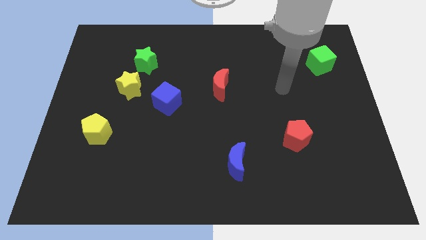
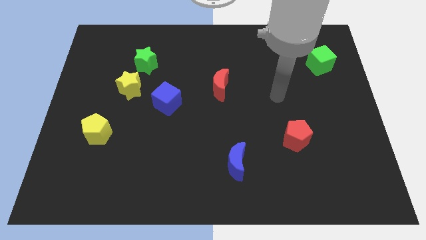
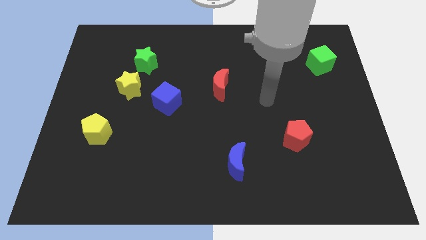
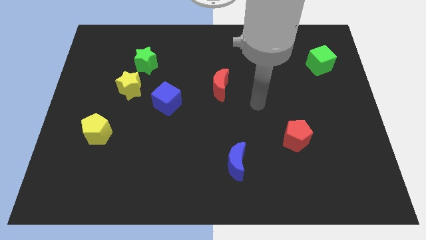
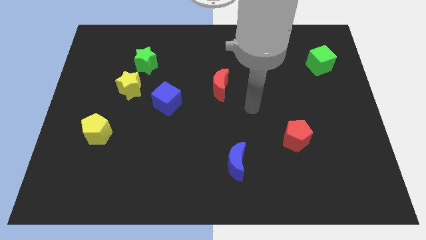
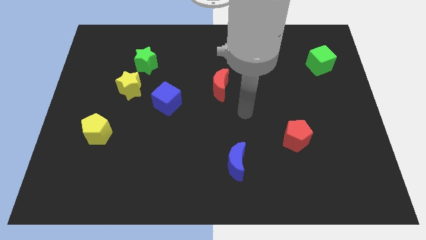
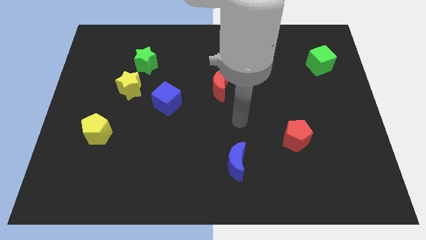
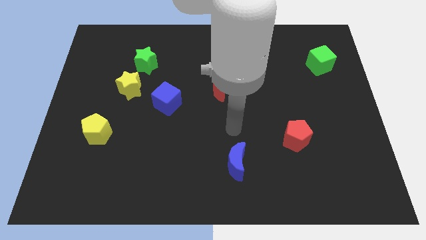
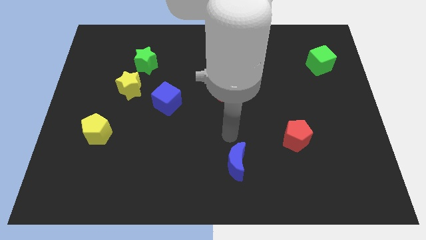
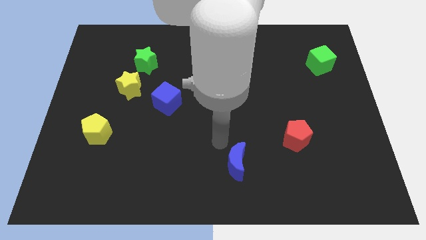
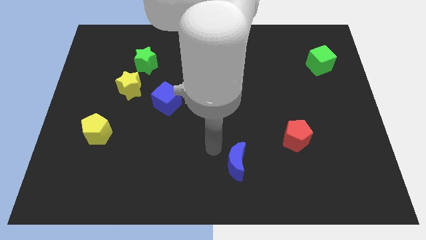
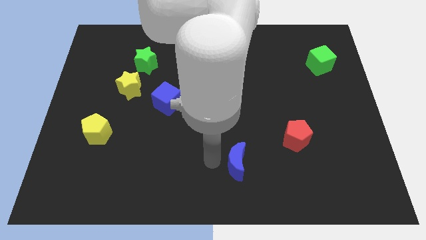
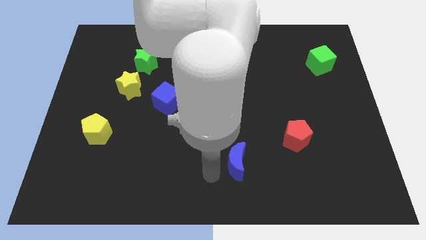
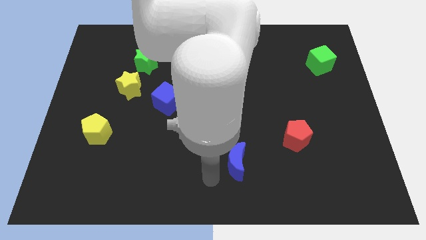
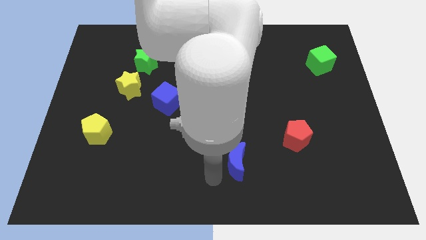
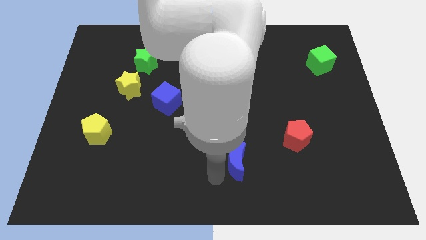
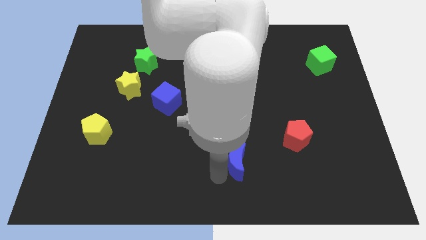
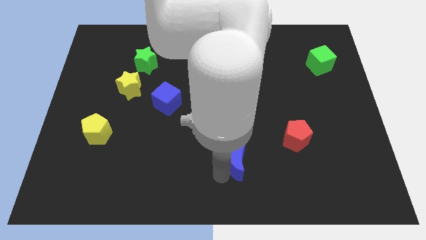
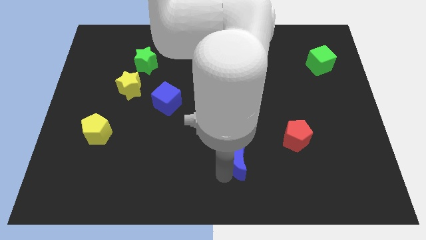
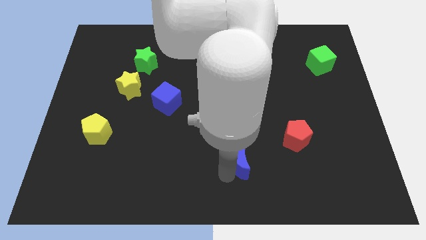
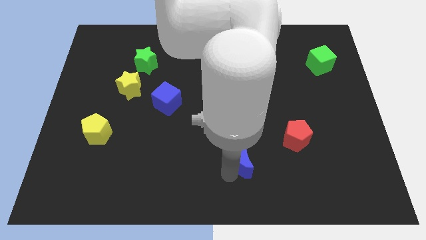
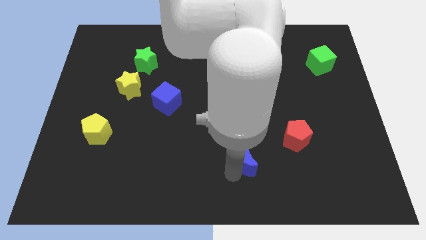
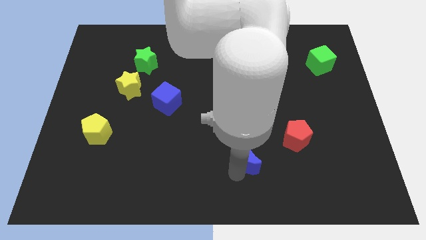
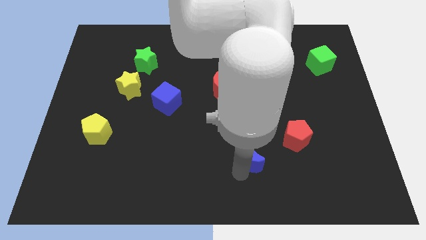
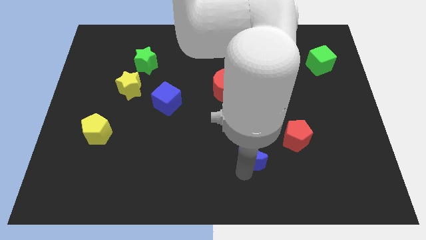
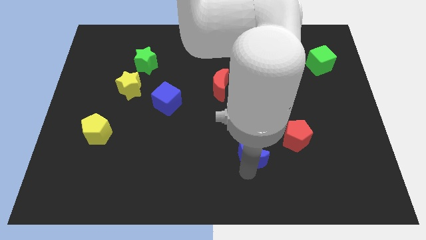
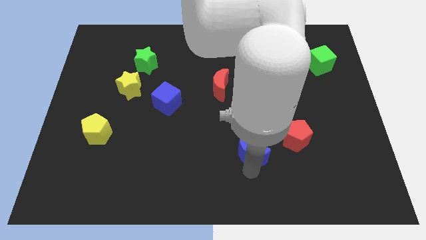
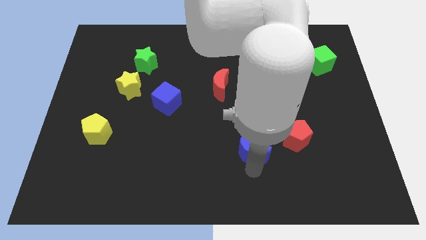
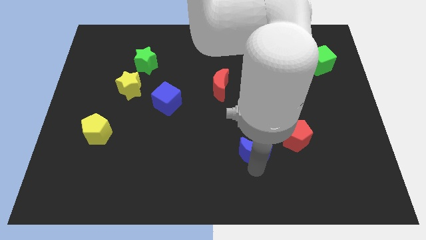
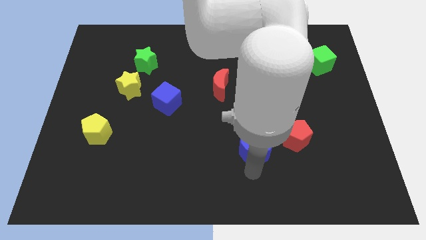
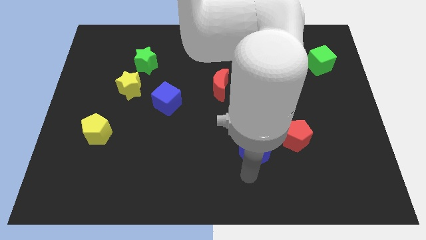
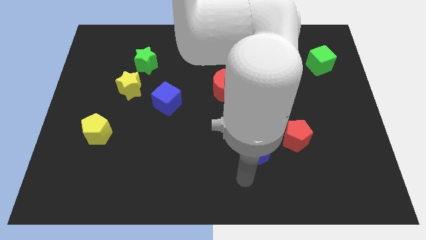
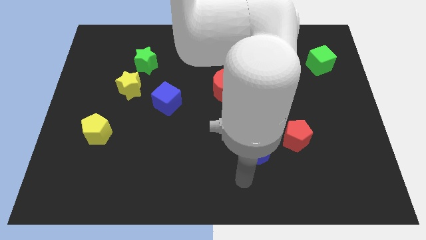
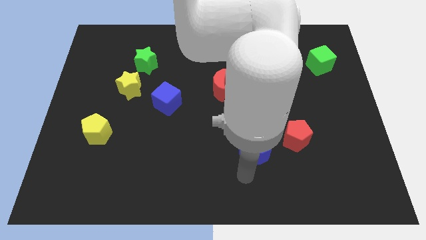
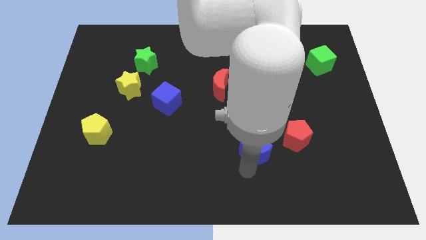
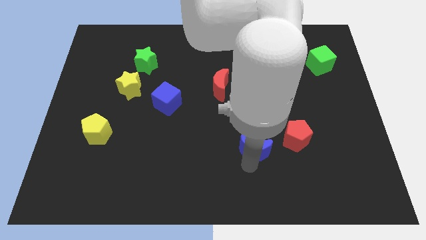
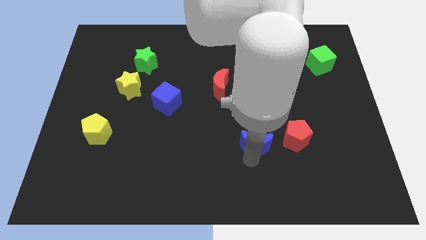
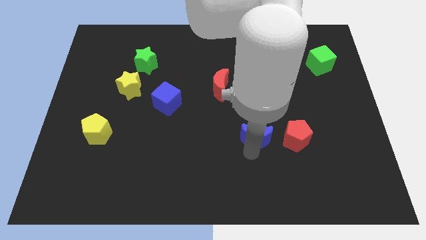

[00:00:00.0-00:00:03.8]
slightly slide the blue moon up and right

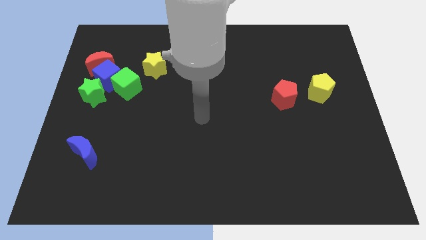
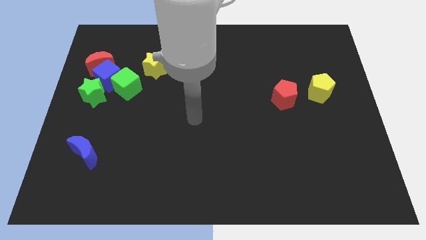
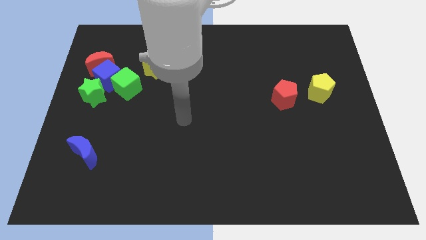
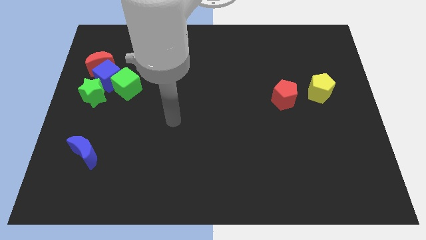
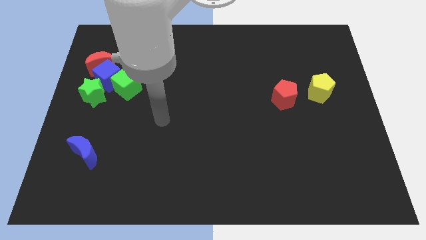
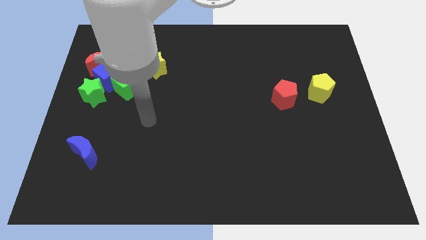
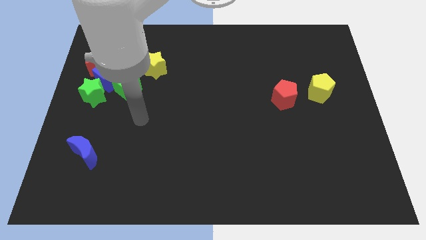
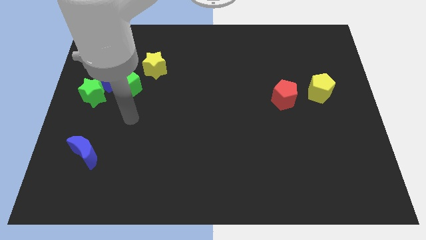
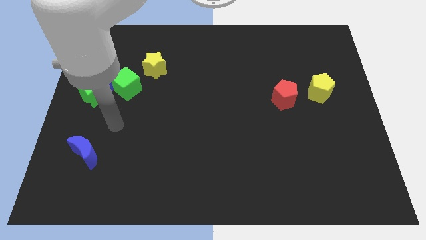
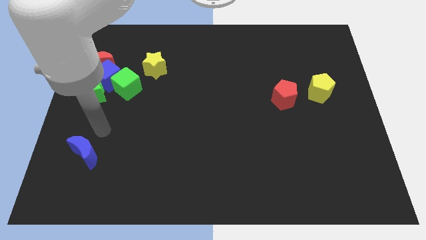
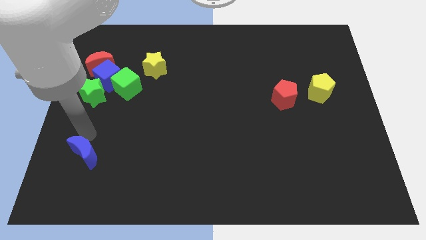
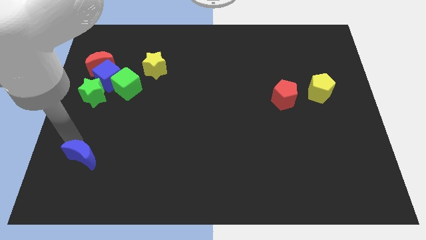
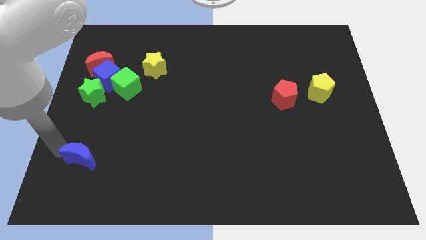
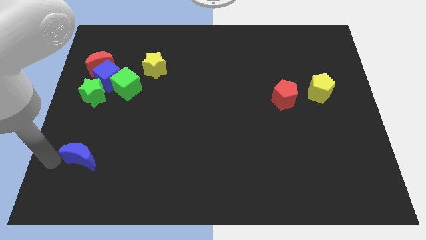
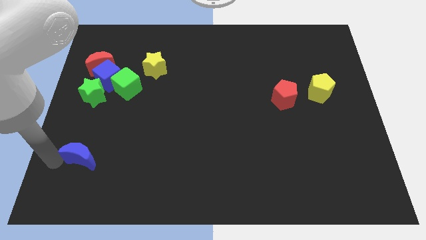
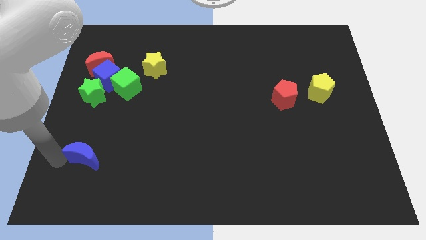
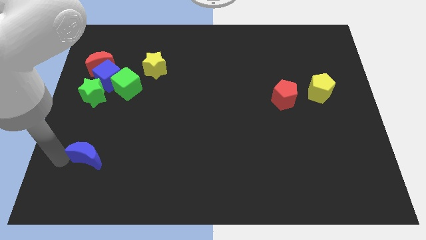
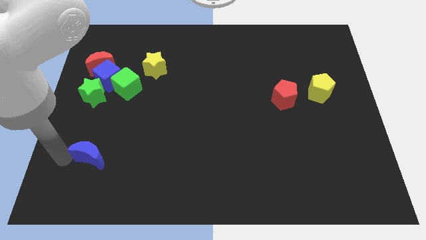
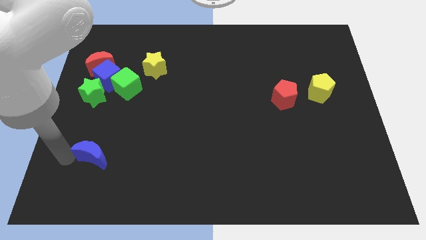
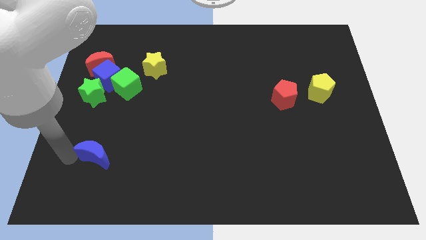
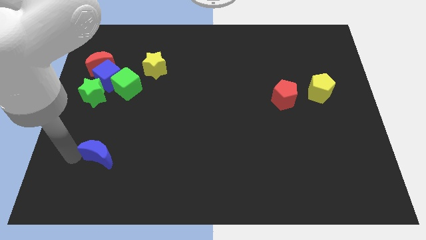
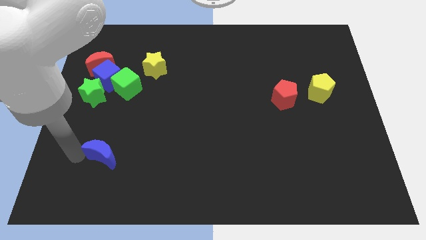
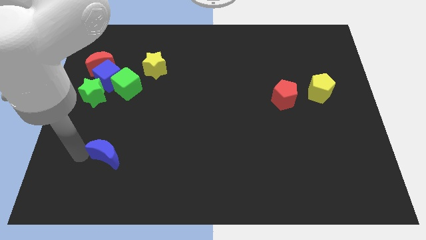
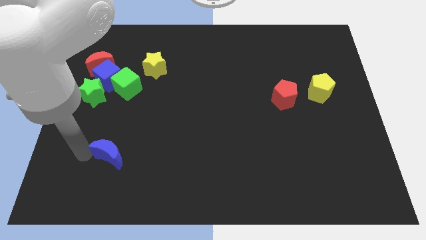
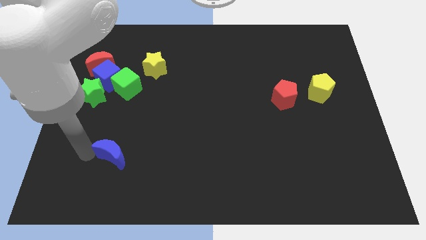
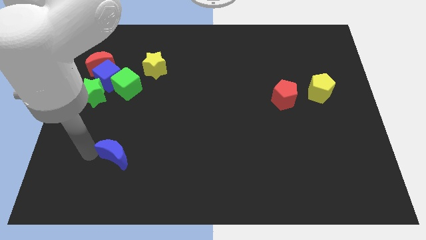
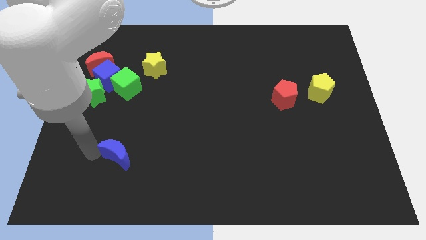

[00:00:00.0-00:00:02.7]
slide the blue moon a bit to the right

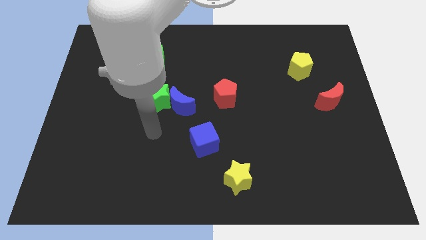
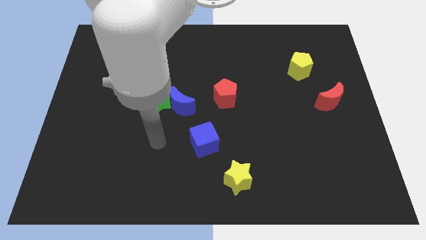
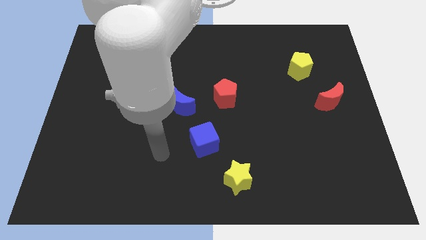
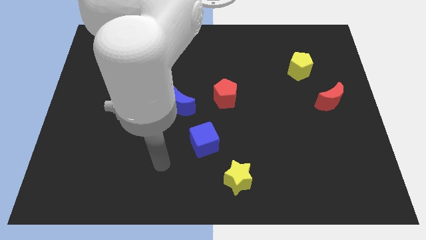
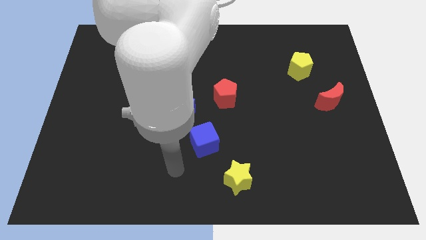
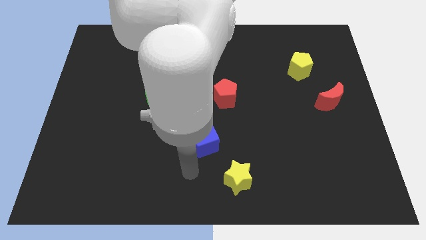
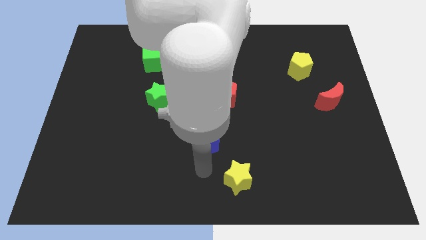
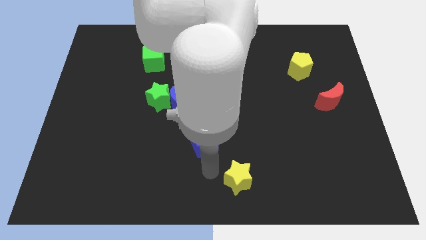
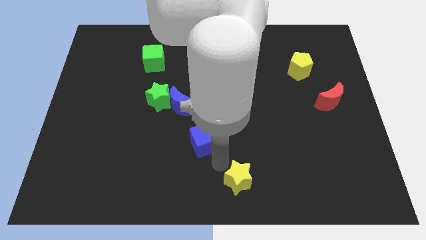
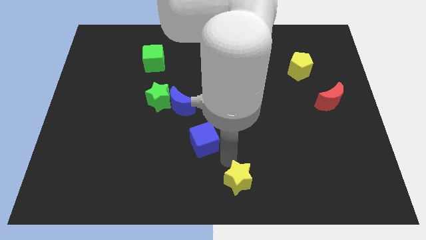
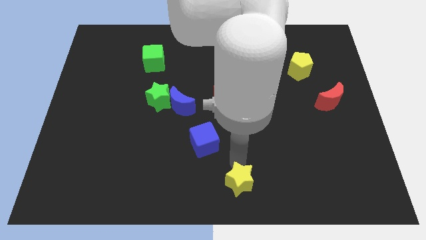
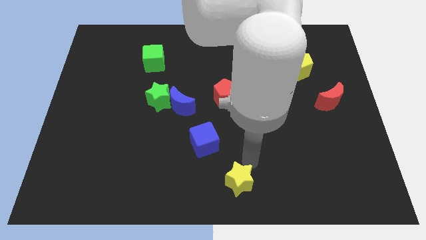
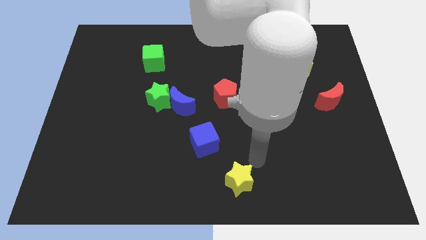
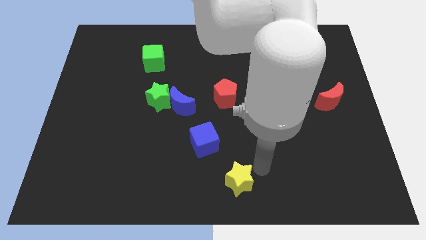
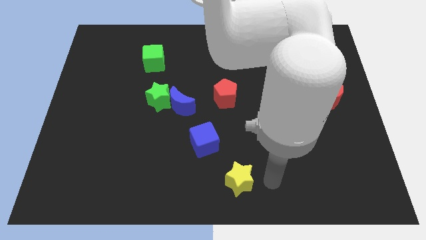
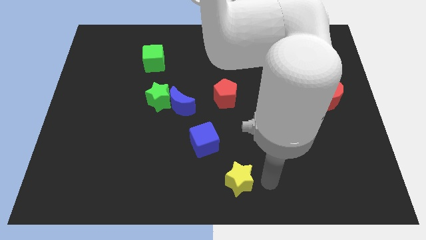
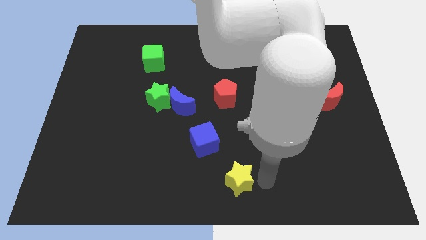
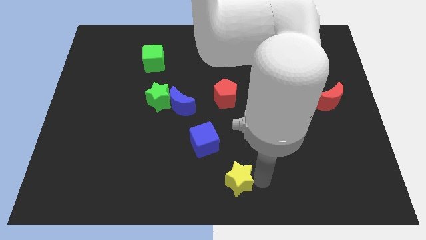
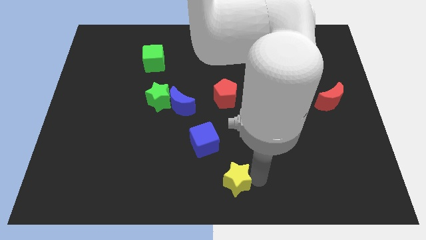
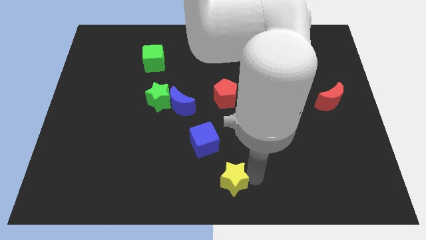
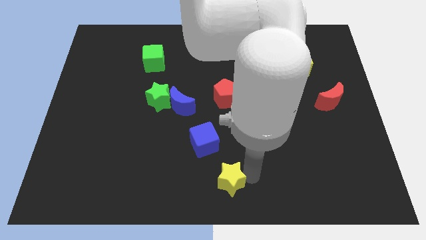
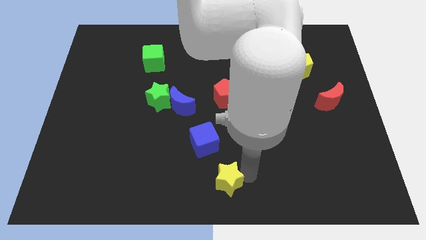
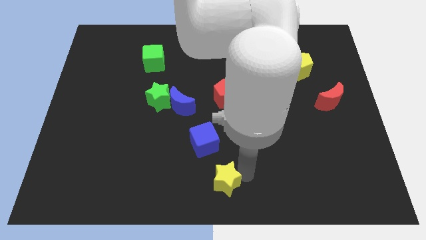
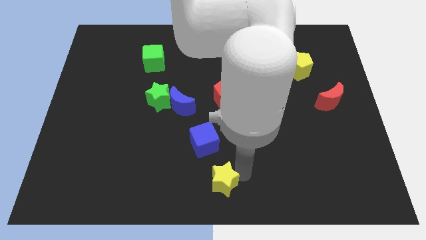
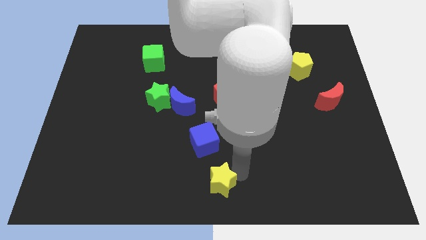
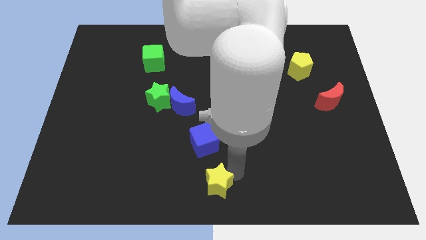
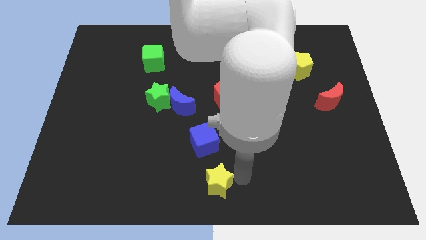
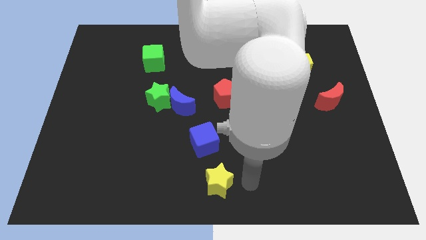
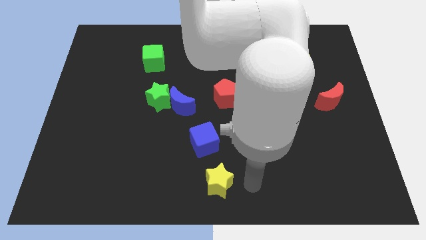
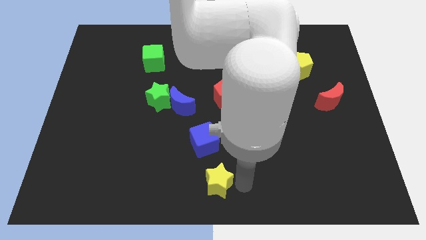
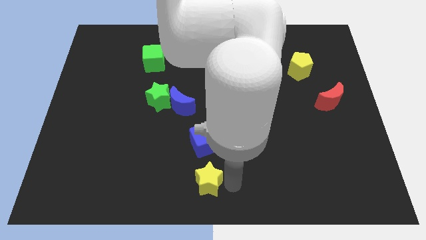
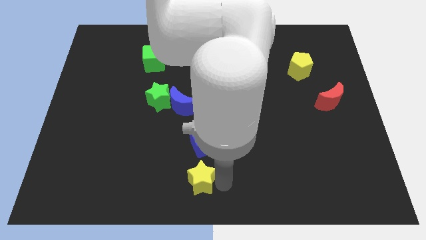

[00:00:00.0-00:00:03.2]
move the yellow star somewhat to the left
